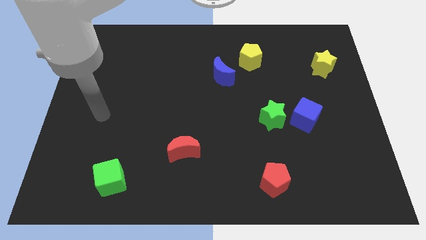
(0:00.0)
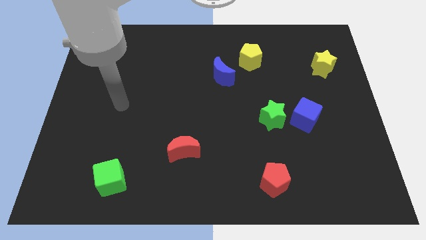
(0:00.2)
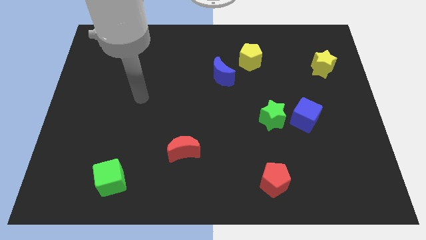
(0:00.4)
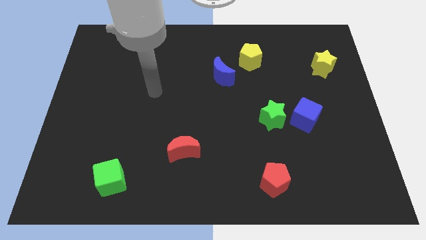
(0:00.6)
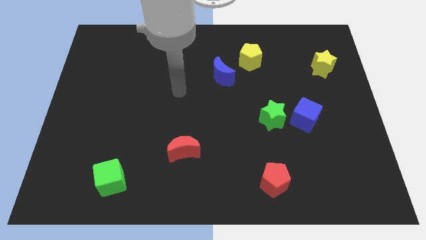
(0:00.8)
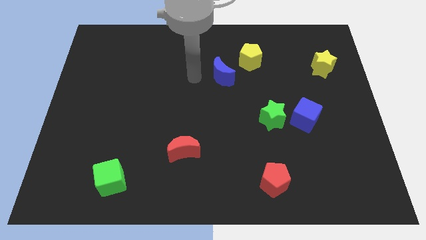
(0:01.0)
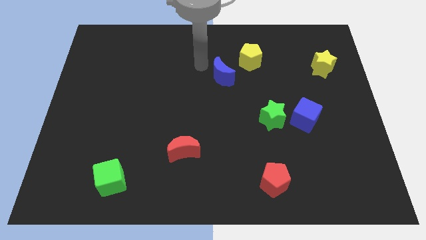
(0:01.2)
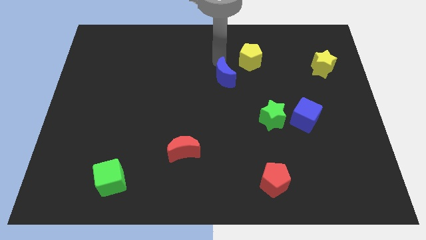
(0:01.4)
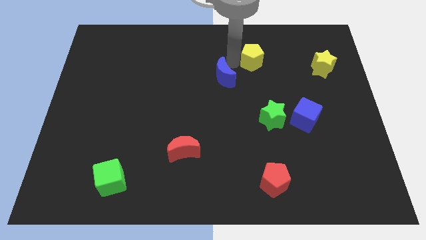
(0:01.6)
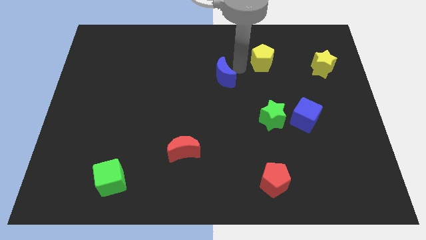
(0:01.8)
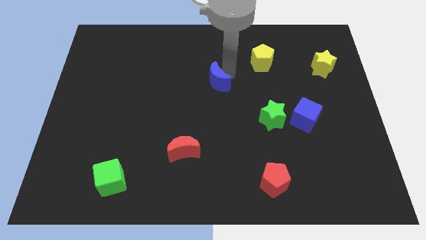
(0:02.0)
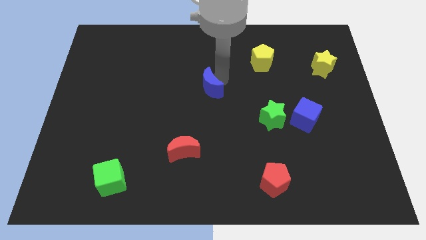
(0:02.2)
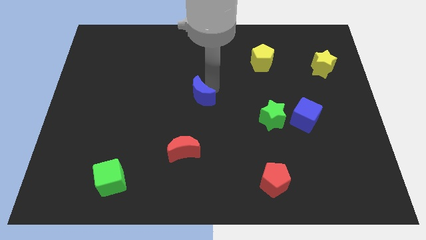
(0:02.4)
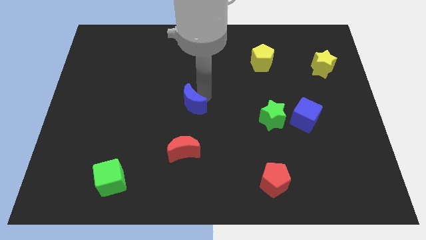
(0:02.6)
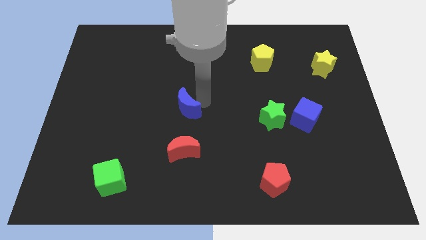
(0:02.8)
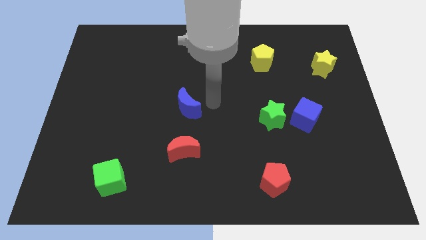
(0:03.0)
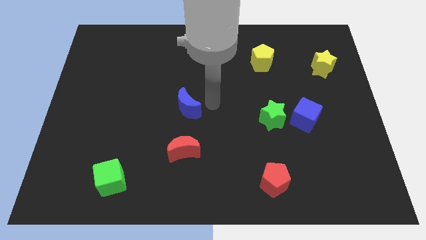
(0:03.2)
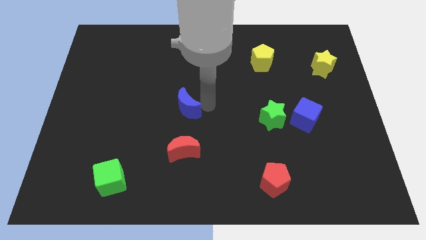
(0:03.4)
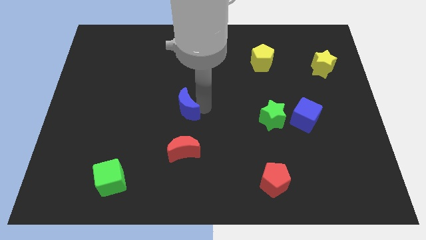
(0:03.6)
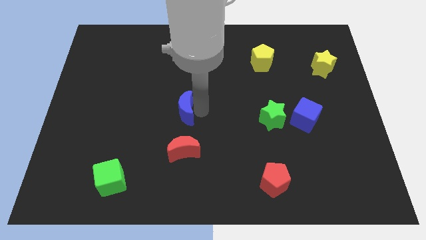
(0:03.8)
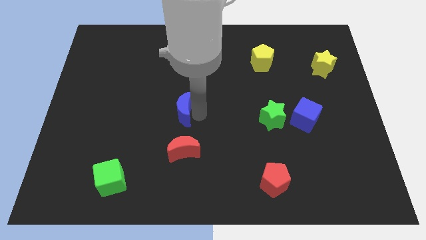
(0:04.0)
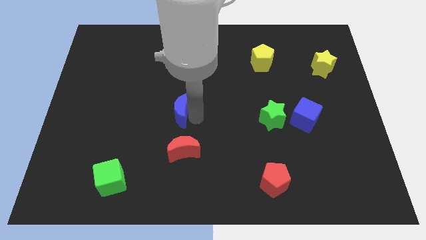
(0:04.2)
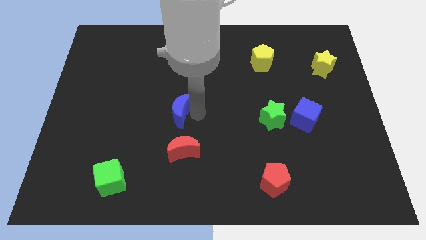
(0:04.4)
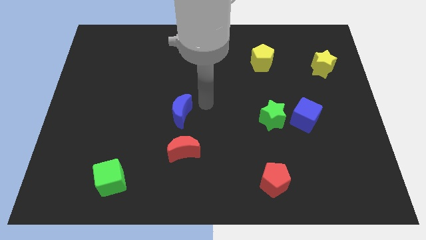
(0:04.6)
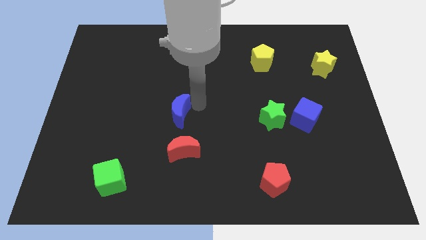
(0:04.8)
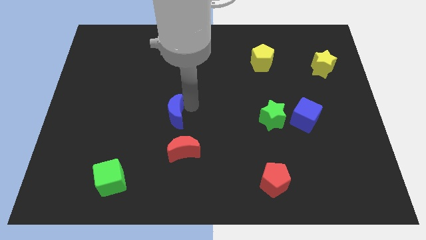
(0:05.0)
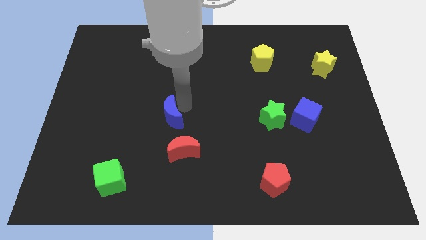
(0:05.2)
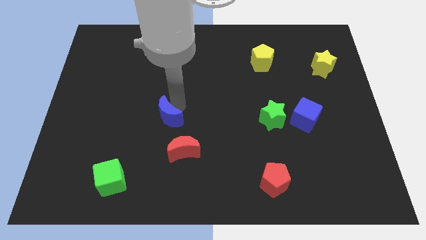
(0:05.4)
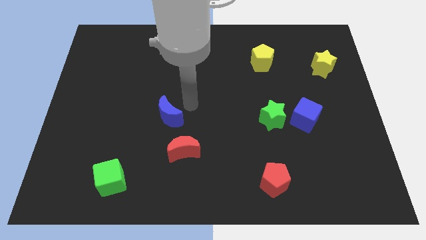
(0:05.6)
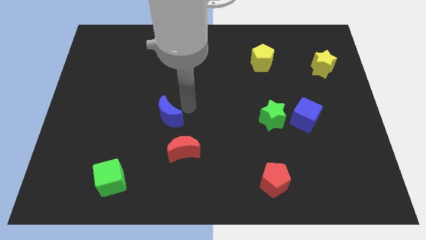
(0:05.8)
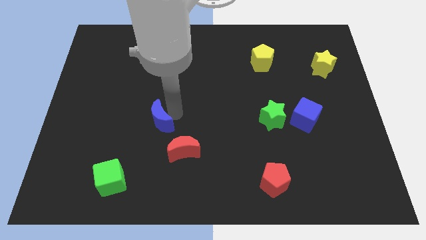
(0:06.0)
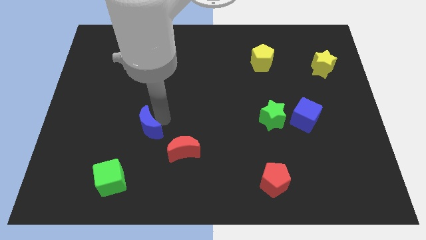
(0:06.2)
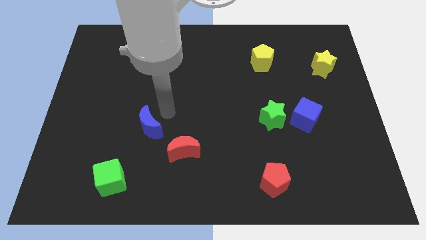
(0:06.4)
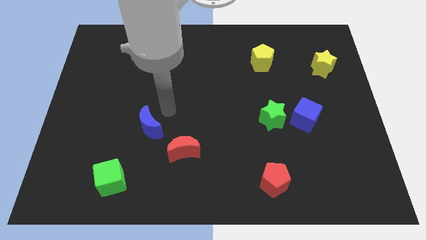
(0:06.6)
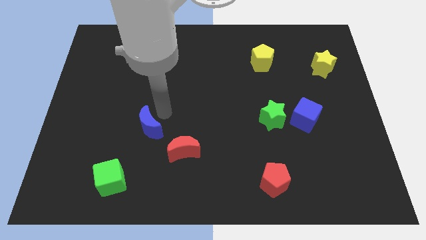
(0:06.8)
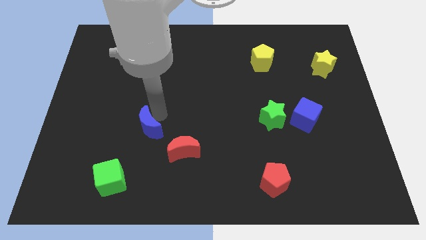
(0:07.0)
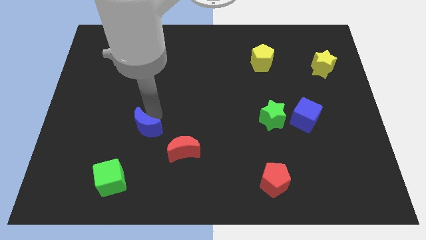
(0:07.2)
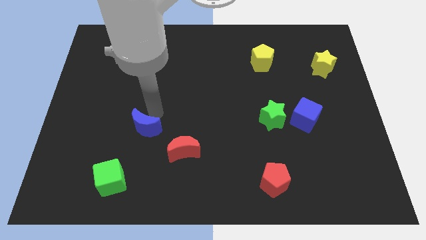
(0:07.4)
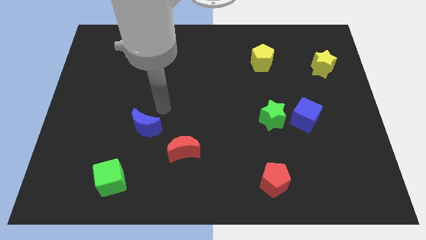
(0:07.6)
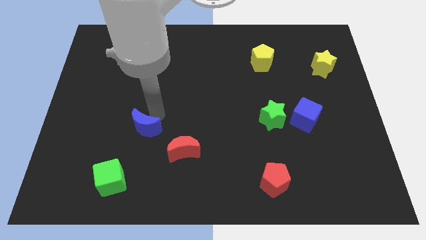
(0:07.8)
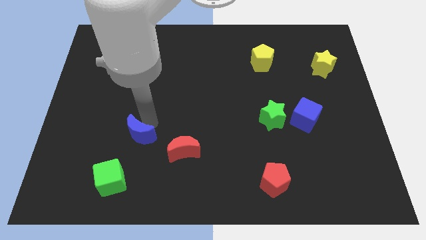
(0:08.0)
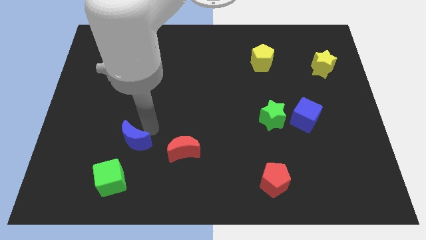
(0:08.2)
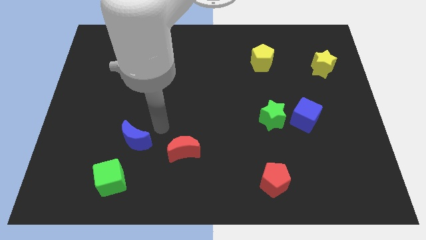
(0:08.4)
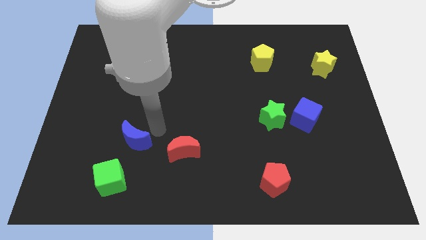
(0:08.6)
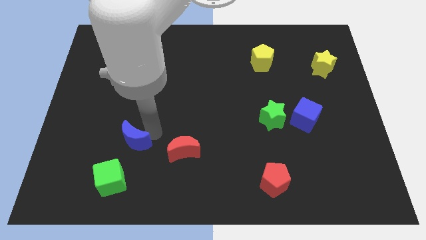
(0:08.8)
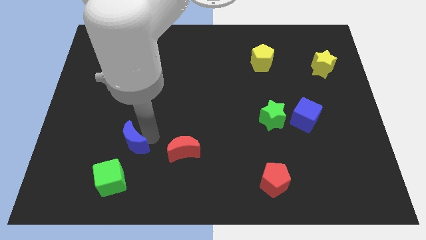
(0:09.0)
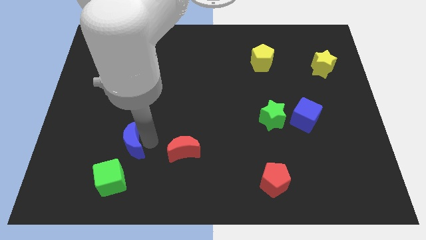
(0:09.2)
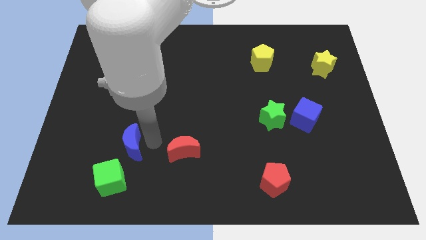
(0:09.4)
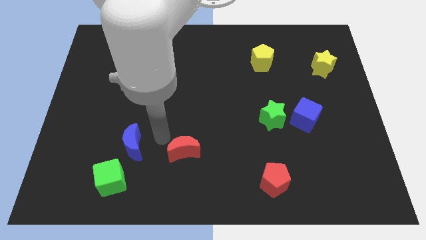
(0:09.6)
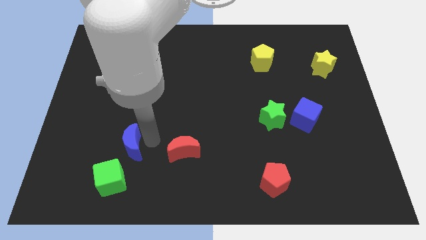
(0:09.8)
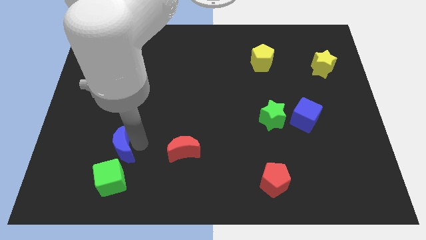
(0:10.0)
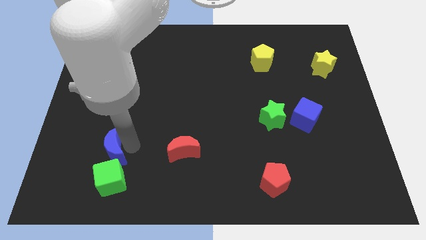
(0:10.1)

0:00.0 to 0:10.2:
slide the blue moon diagonally up and to the left of the green cube
